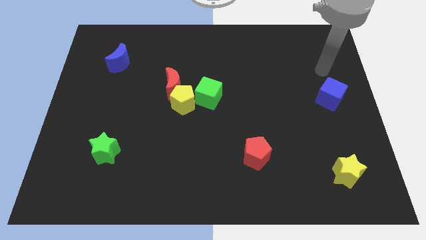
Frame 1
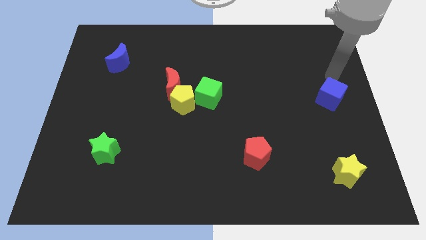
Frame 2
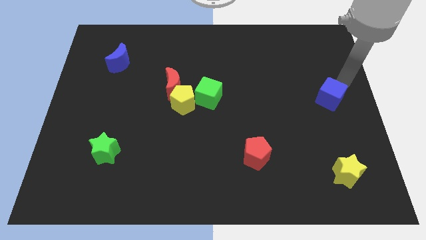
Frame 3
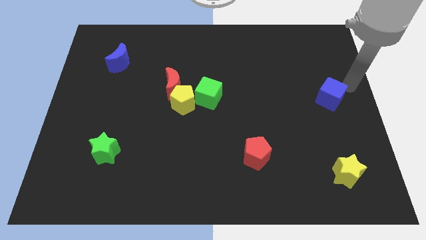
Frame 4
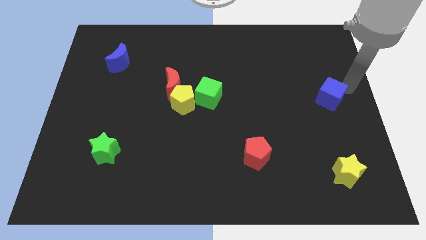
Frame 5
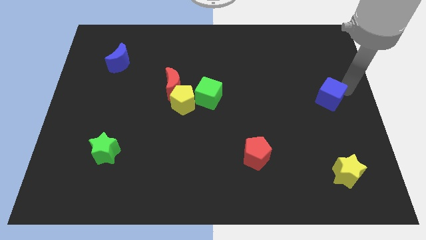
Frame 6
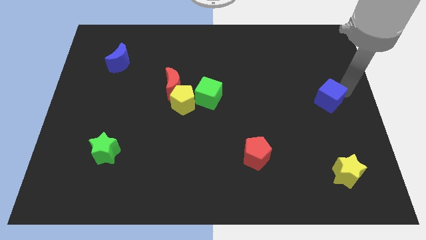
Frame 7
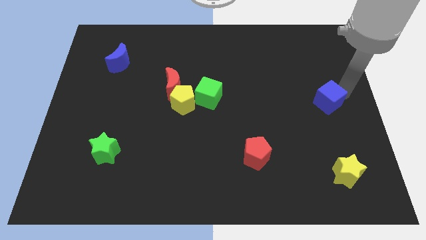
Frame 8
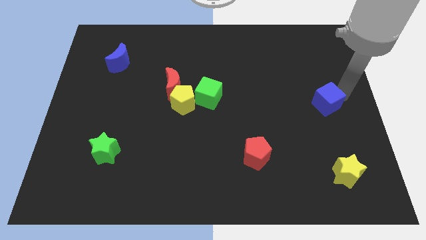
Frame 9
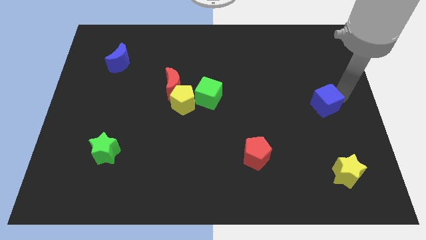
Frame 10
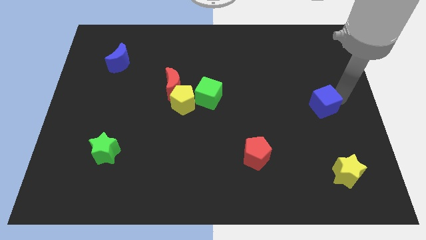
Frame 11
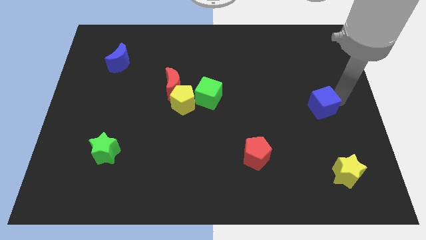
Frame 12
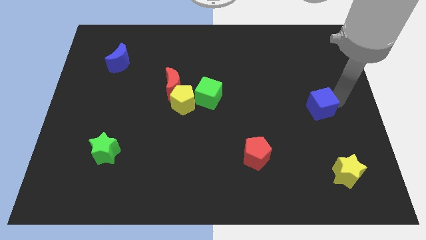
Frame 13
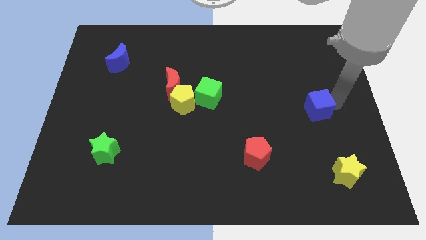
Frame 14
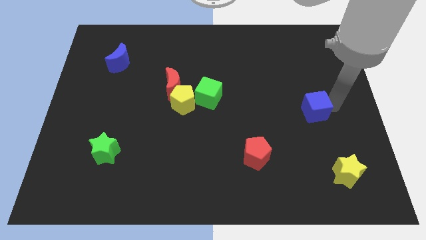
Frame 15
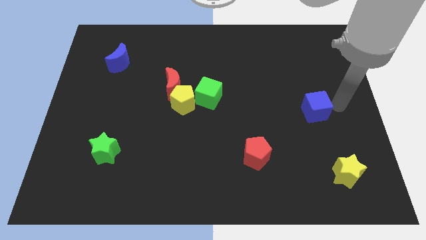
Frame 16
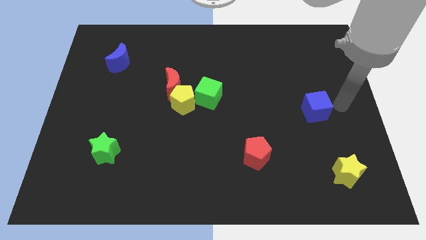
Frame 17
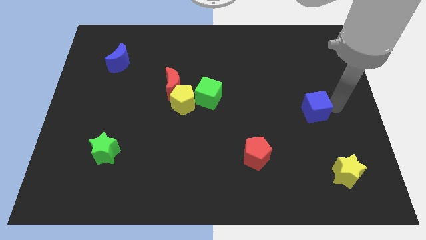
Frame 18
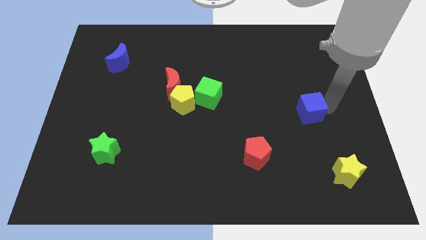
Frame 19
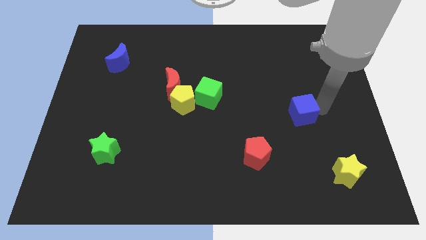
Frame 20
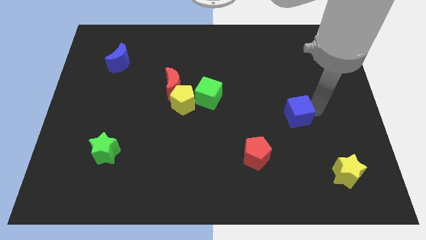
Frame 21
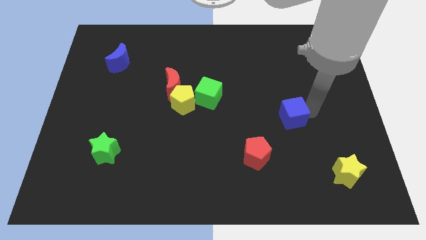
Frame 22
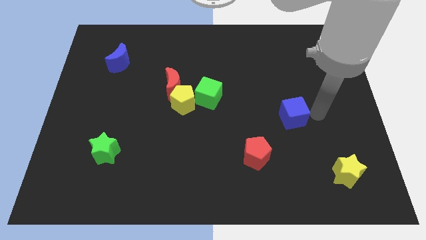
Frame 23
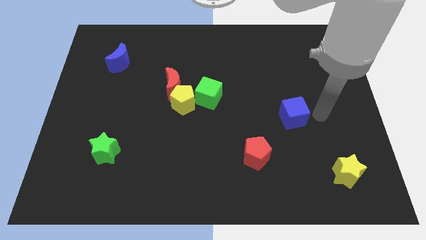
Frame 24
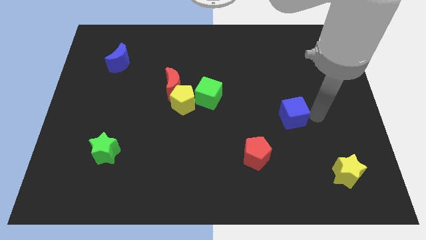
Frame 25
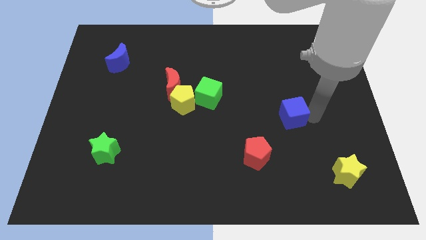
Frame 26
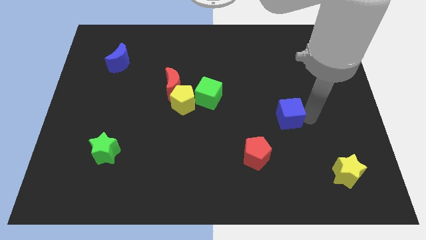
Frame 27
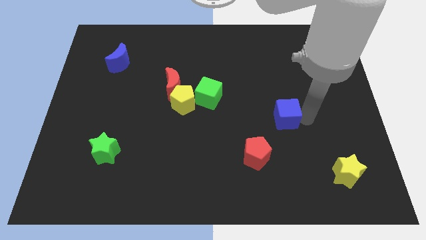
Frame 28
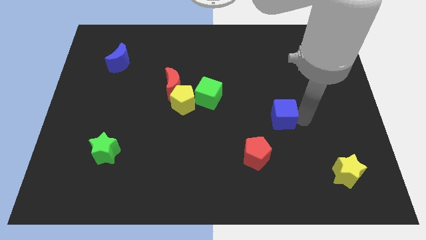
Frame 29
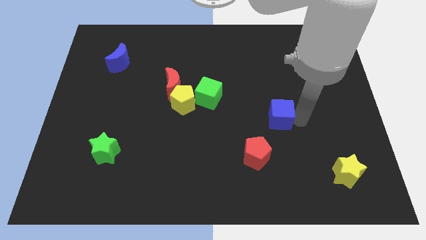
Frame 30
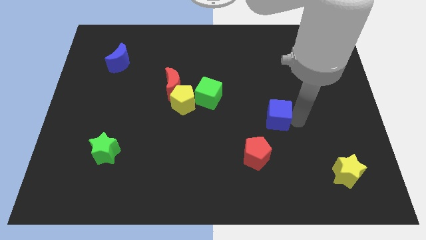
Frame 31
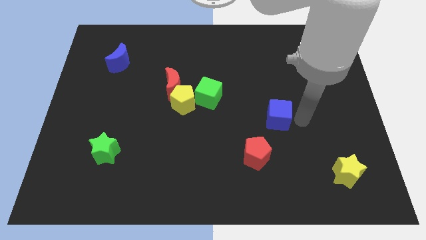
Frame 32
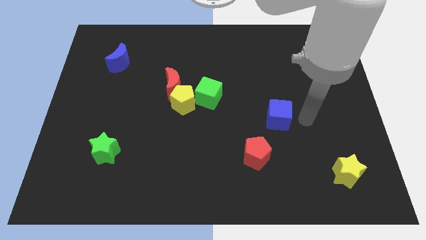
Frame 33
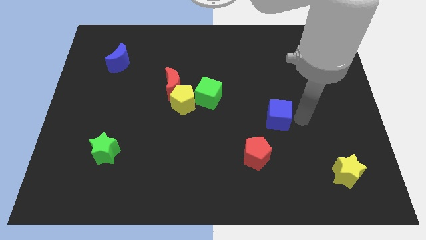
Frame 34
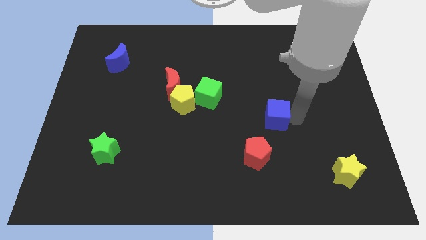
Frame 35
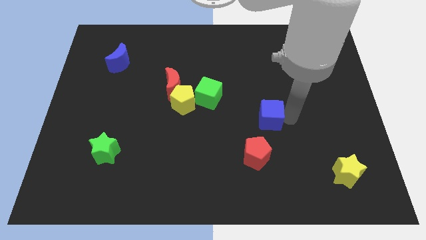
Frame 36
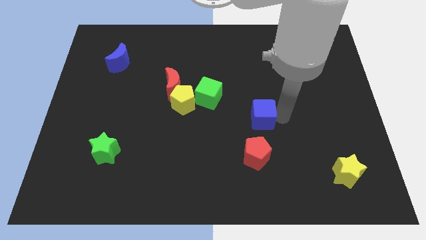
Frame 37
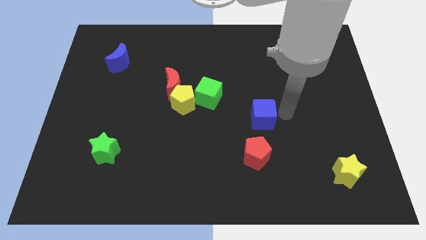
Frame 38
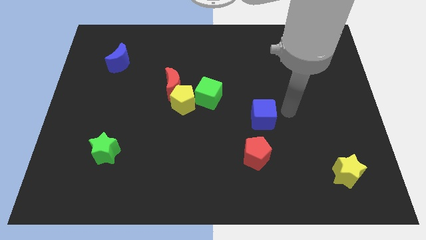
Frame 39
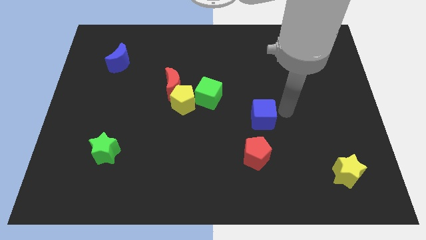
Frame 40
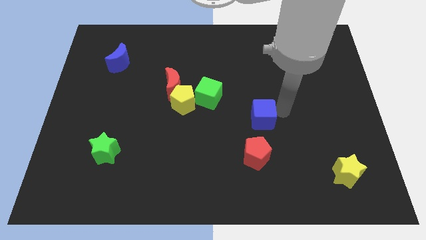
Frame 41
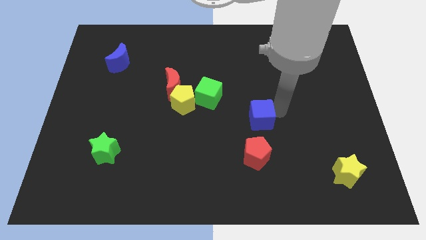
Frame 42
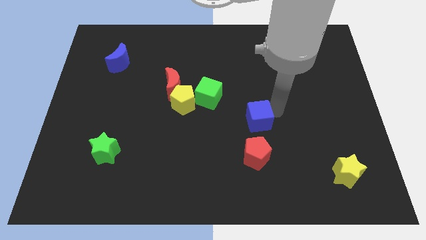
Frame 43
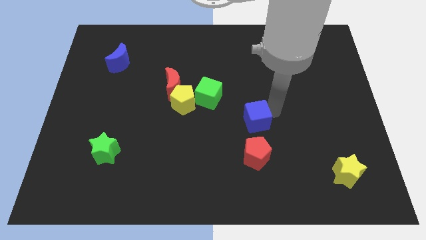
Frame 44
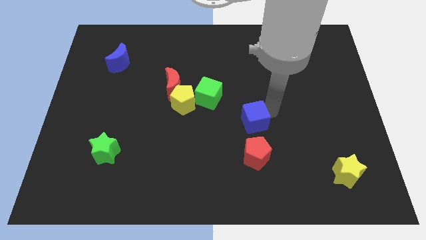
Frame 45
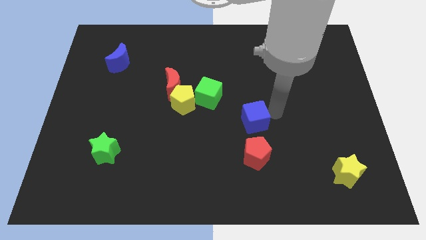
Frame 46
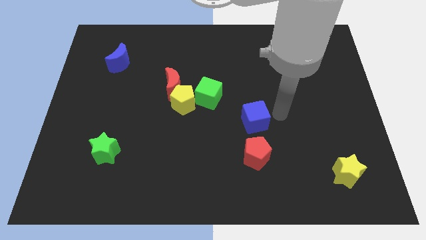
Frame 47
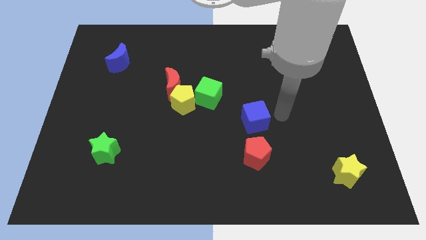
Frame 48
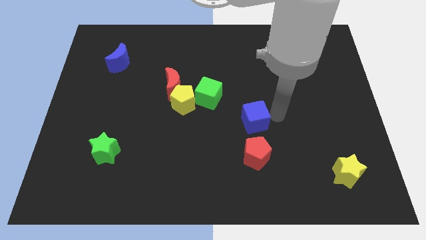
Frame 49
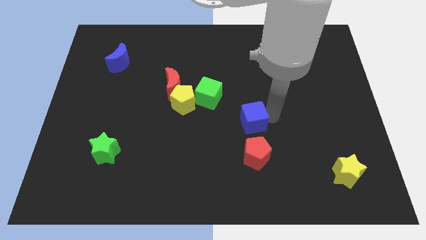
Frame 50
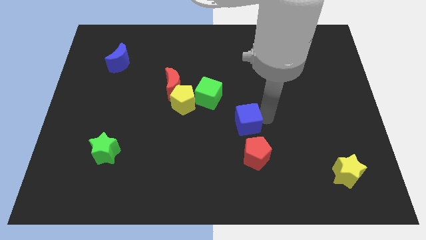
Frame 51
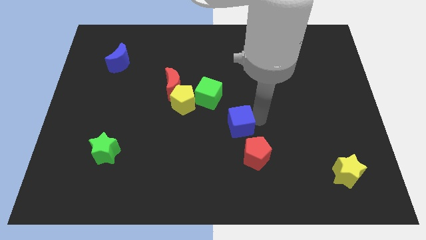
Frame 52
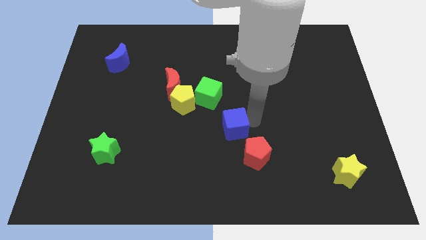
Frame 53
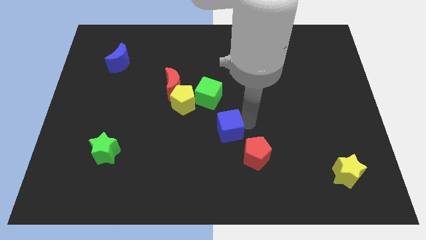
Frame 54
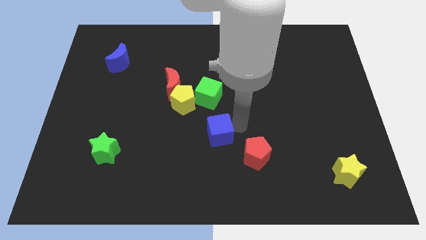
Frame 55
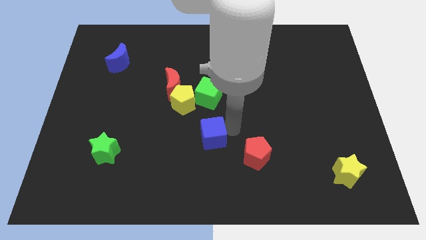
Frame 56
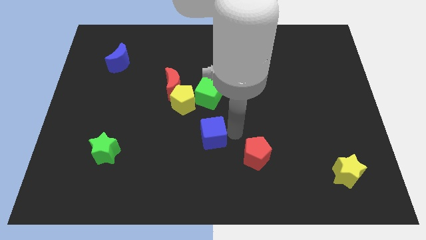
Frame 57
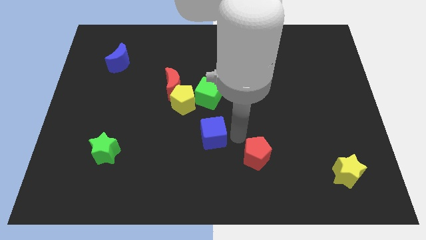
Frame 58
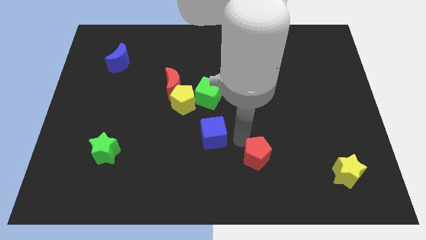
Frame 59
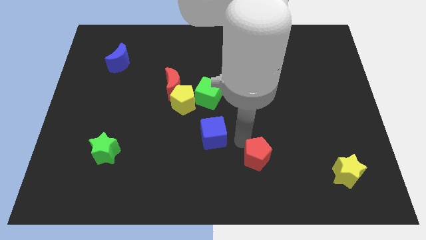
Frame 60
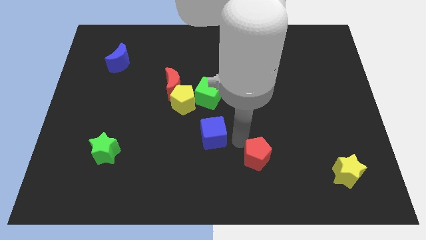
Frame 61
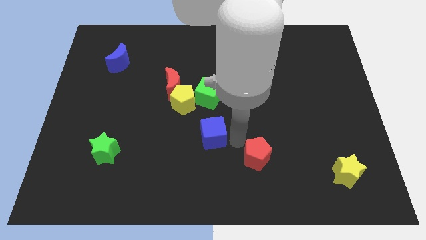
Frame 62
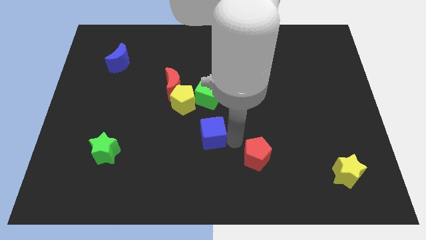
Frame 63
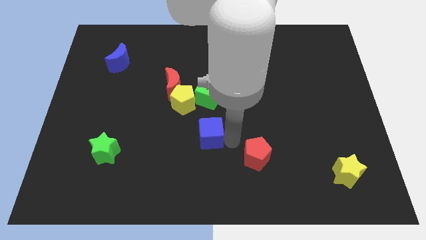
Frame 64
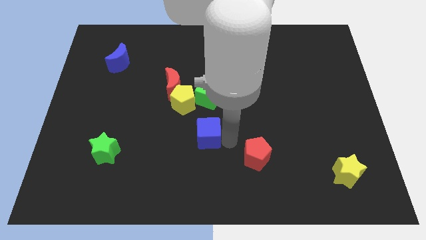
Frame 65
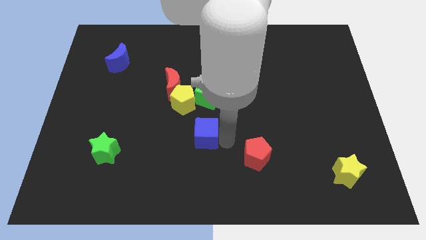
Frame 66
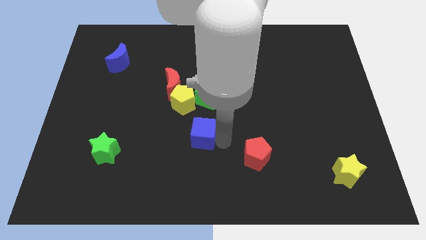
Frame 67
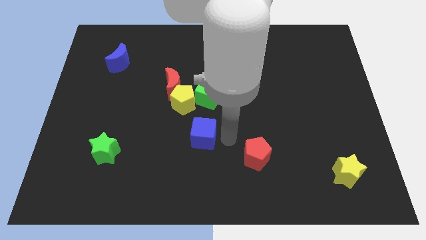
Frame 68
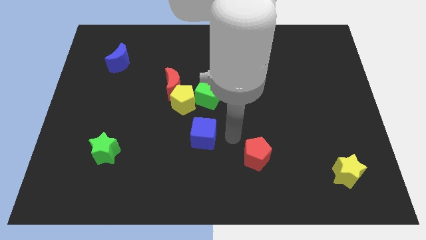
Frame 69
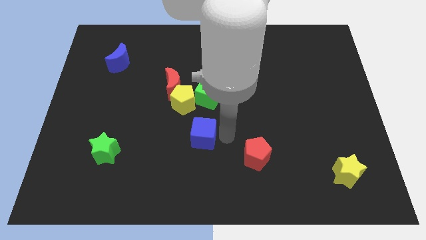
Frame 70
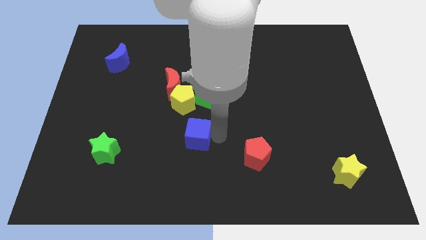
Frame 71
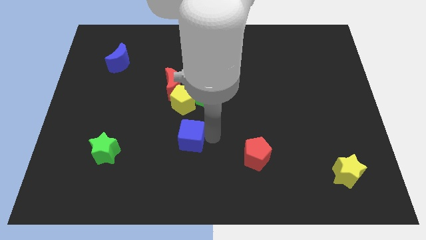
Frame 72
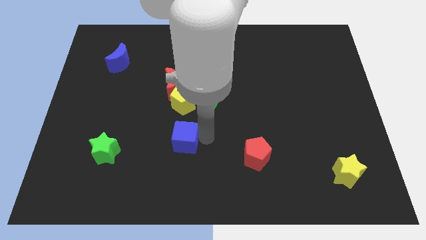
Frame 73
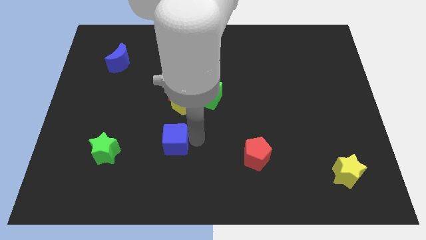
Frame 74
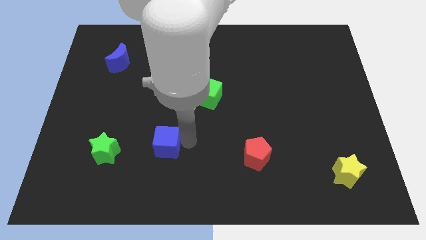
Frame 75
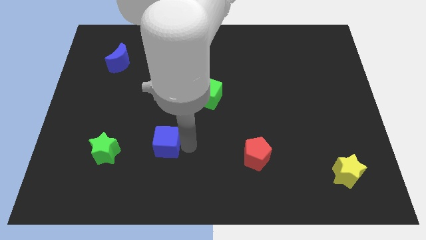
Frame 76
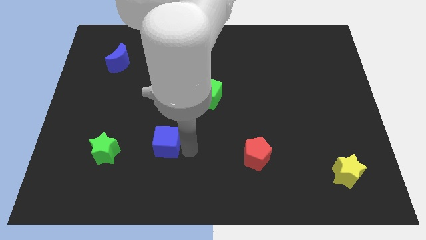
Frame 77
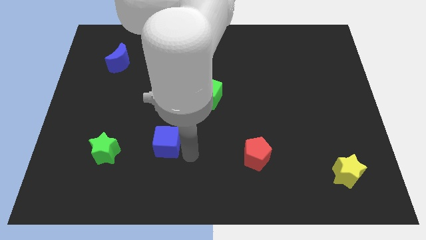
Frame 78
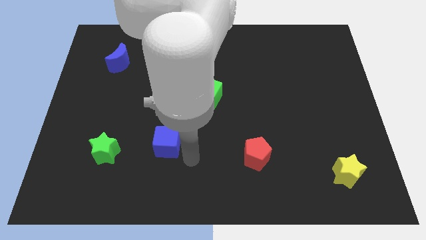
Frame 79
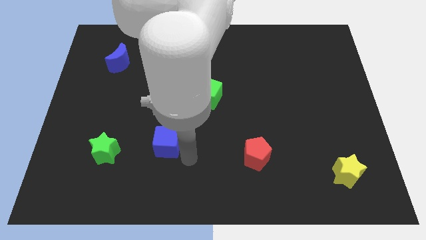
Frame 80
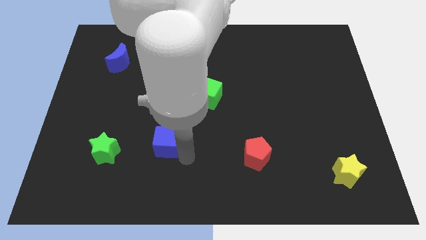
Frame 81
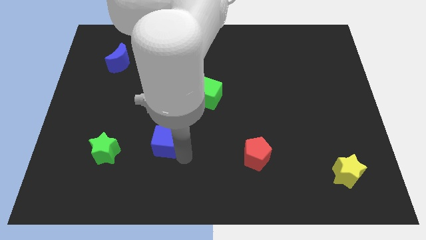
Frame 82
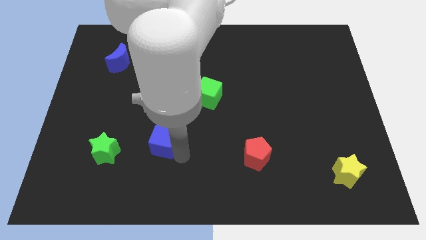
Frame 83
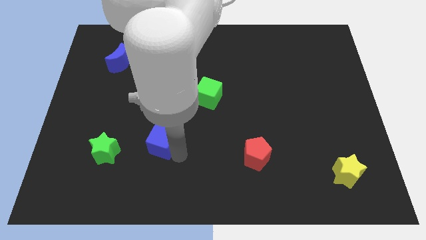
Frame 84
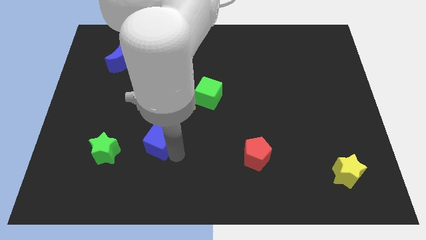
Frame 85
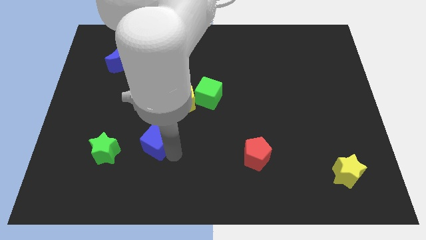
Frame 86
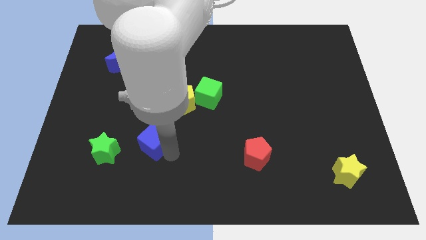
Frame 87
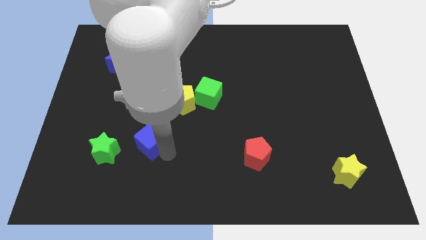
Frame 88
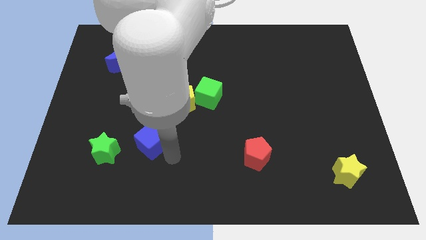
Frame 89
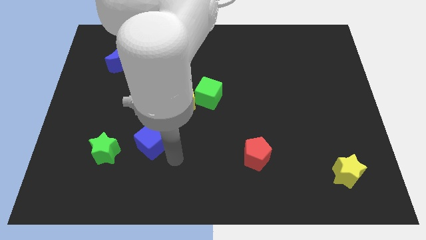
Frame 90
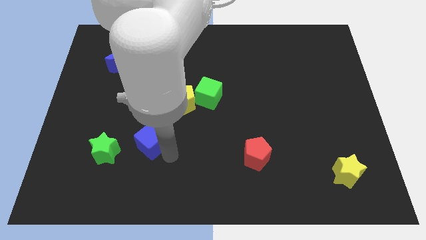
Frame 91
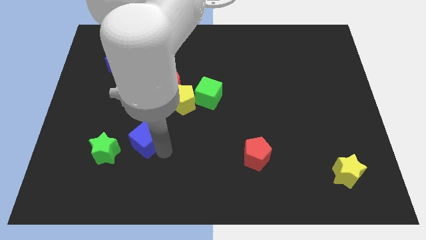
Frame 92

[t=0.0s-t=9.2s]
slide the blue cube diagonally up and to the right of the green star
